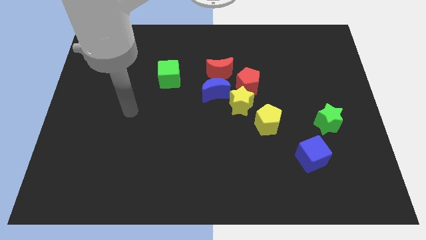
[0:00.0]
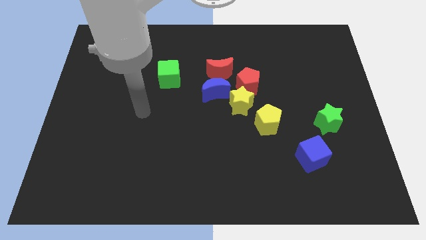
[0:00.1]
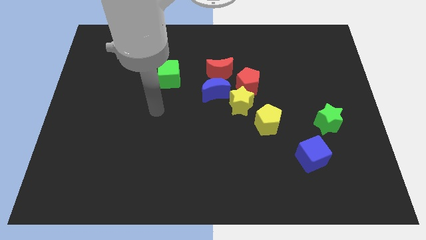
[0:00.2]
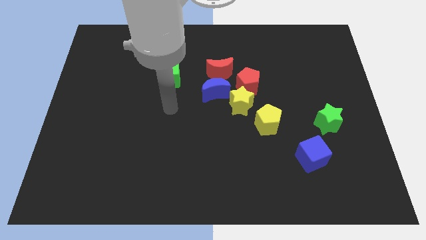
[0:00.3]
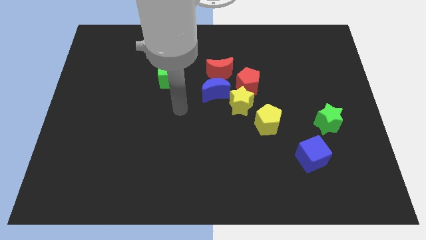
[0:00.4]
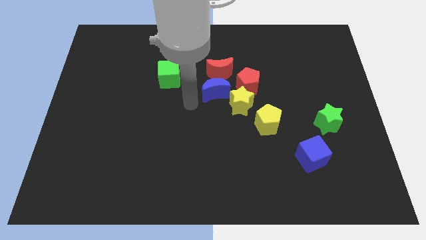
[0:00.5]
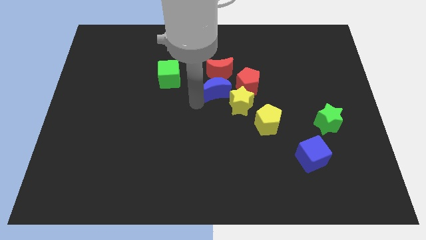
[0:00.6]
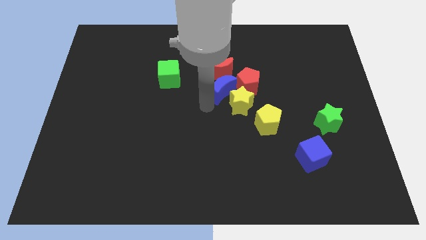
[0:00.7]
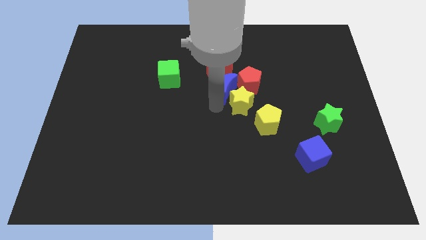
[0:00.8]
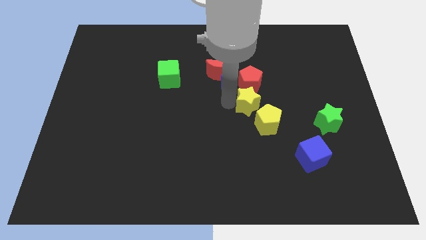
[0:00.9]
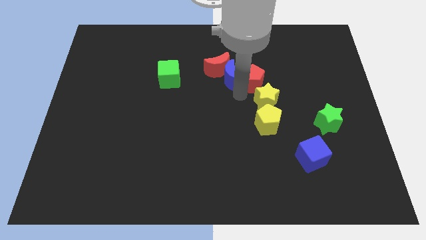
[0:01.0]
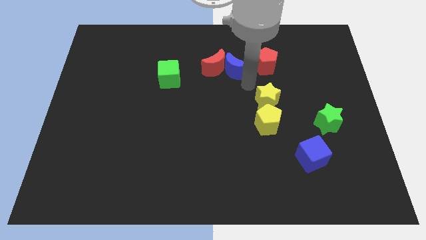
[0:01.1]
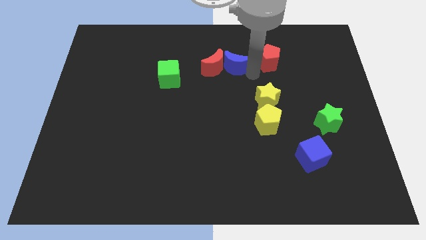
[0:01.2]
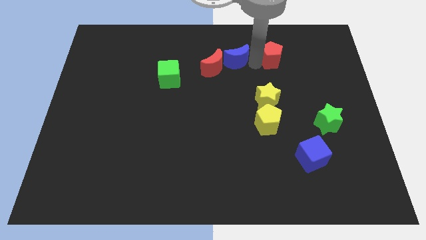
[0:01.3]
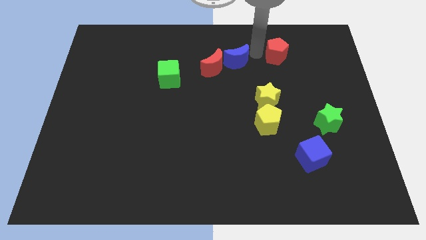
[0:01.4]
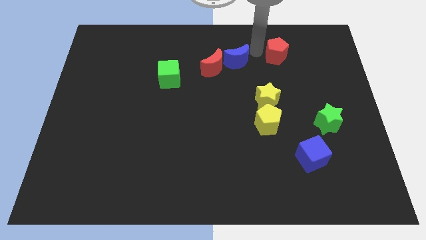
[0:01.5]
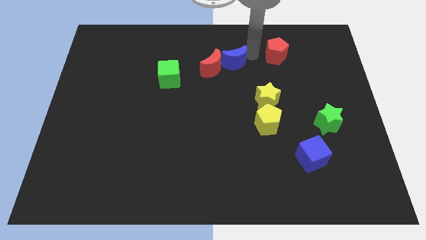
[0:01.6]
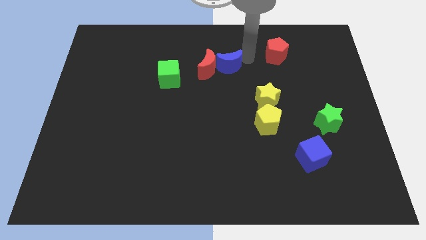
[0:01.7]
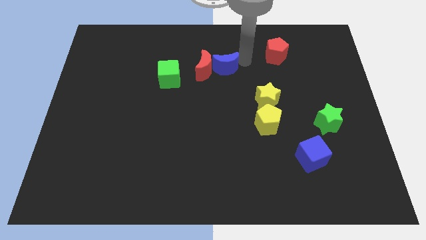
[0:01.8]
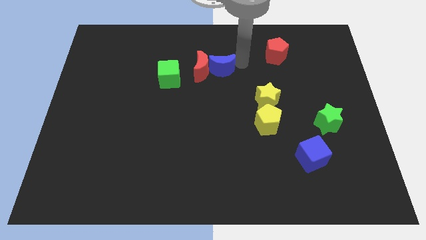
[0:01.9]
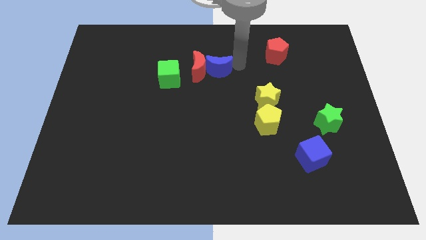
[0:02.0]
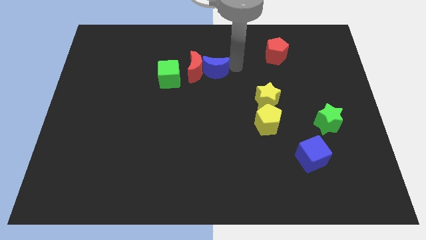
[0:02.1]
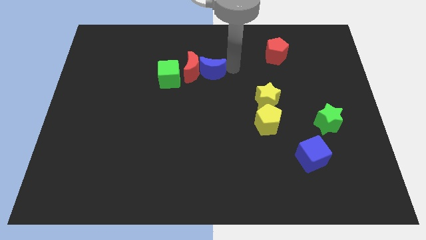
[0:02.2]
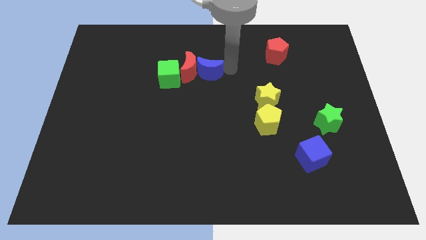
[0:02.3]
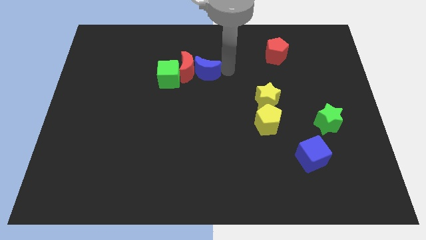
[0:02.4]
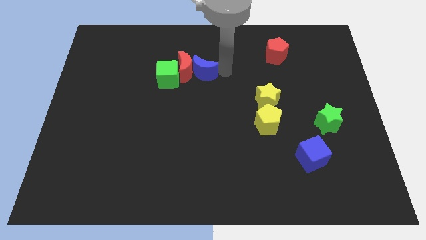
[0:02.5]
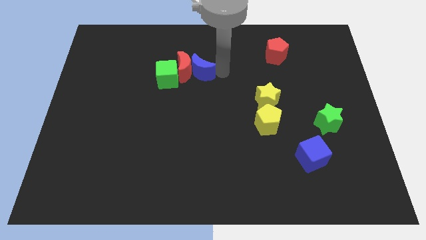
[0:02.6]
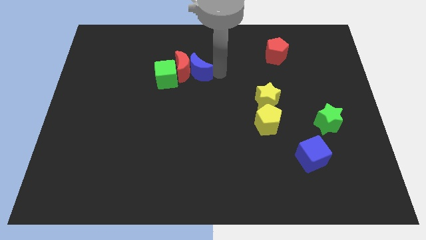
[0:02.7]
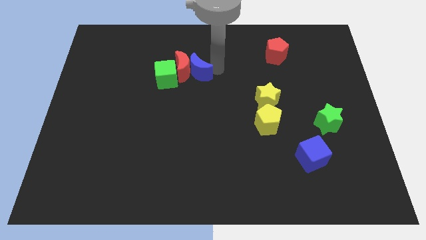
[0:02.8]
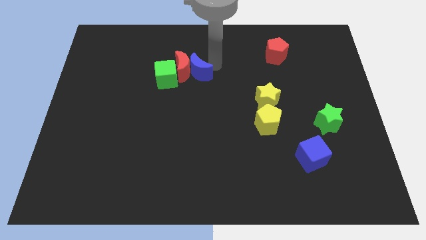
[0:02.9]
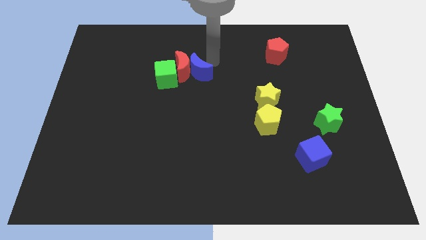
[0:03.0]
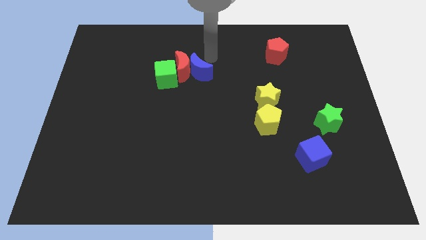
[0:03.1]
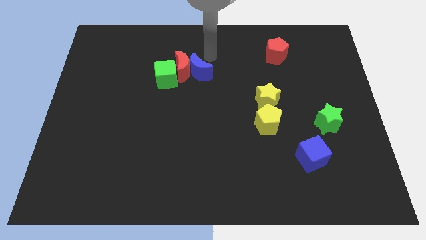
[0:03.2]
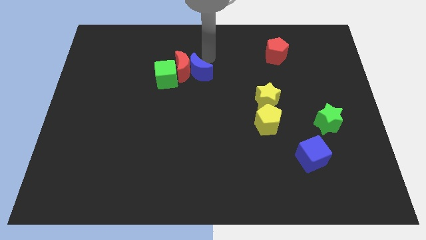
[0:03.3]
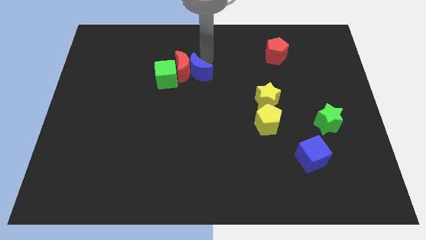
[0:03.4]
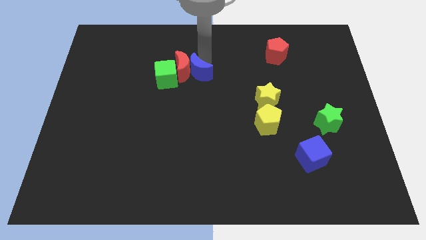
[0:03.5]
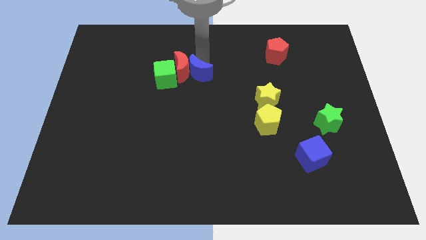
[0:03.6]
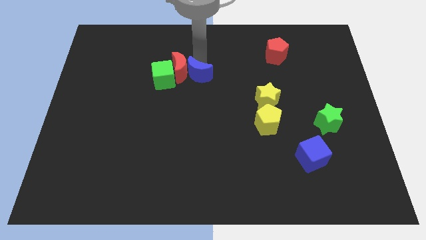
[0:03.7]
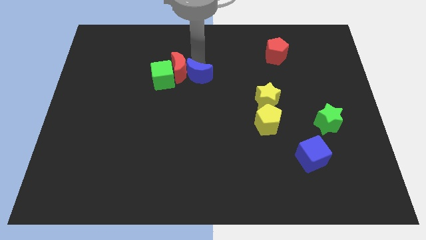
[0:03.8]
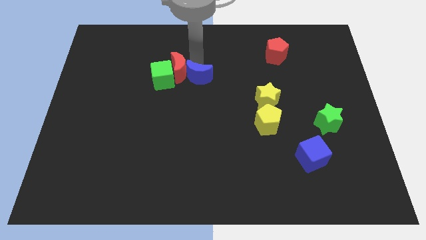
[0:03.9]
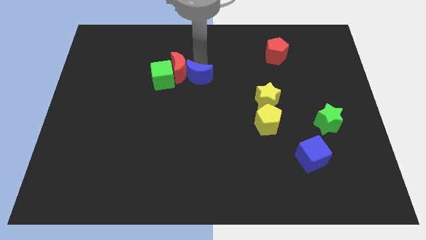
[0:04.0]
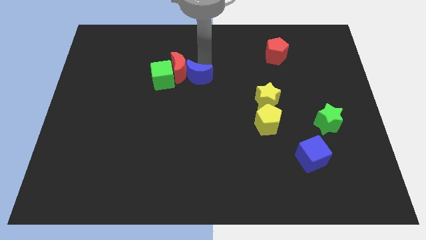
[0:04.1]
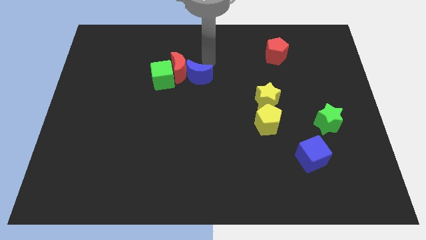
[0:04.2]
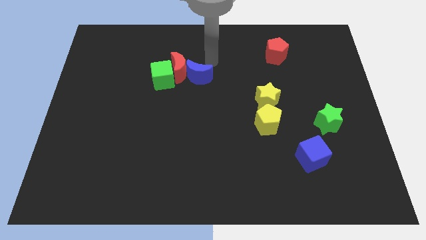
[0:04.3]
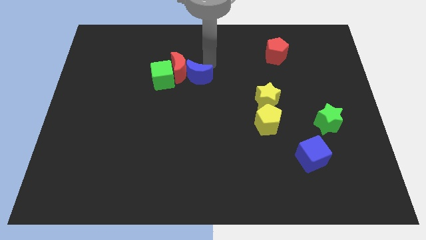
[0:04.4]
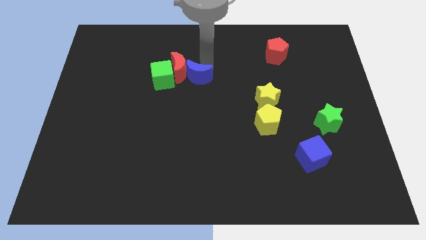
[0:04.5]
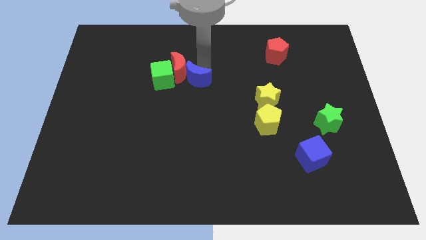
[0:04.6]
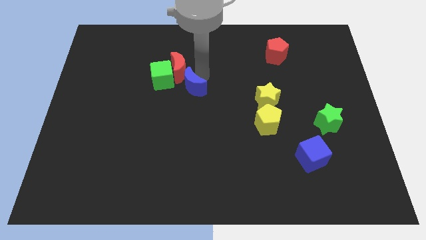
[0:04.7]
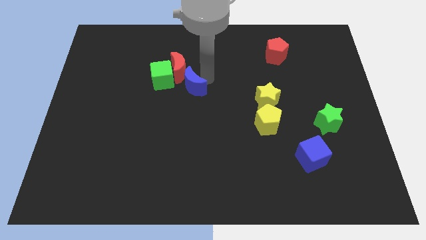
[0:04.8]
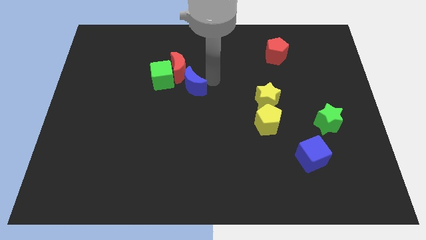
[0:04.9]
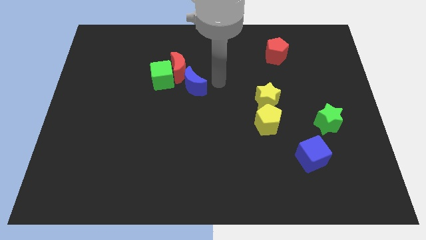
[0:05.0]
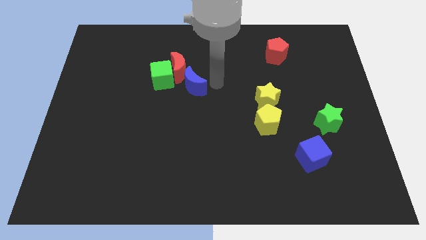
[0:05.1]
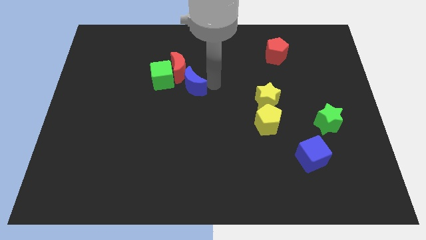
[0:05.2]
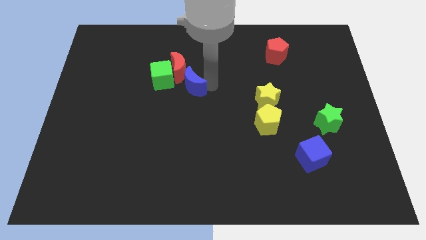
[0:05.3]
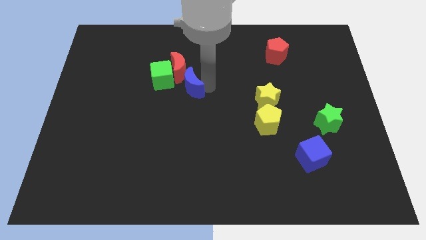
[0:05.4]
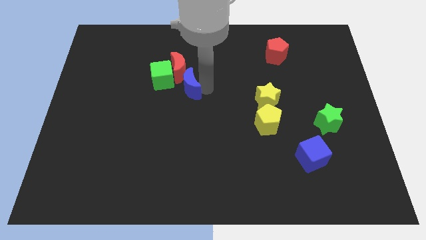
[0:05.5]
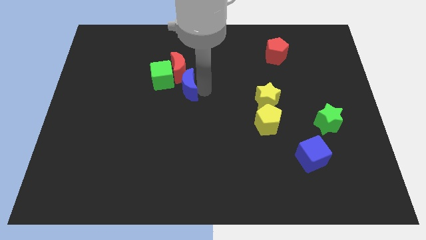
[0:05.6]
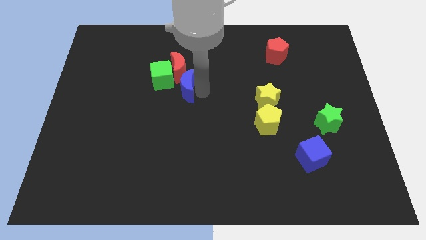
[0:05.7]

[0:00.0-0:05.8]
slide the blue moon to the left a little

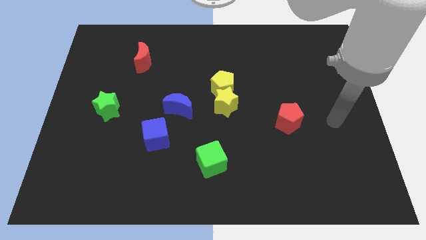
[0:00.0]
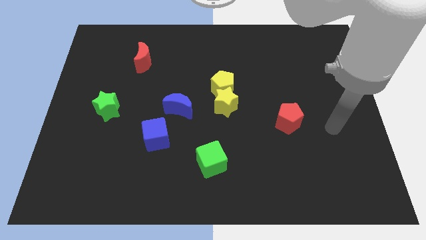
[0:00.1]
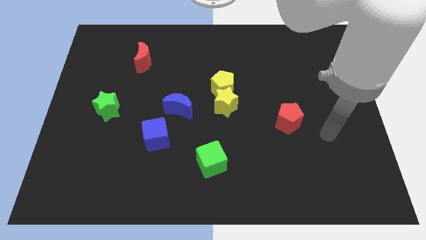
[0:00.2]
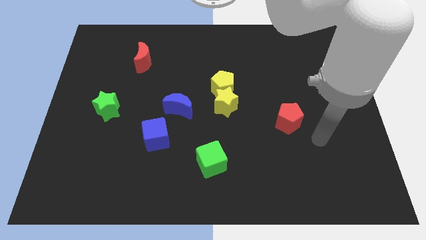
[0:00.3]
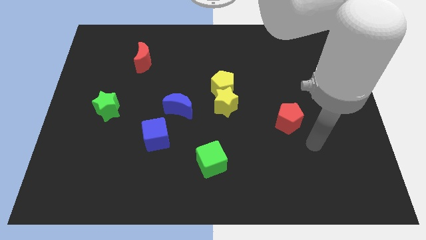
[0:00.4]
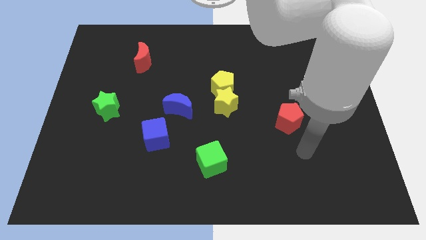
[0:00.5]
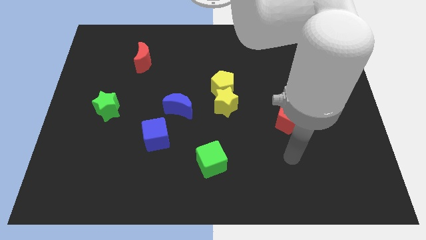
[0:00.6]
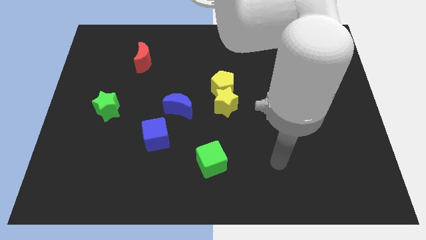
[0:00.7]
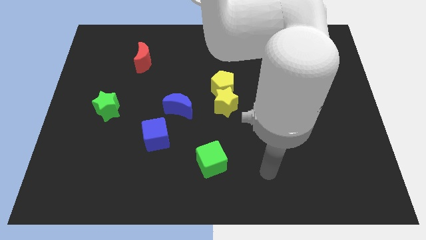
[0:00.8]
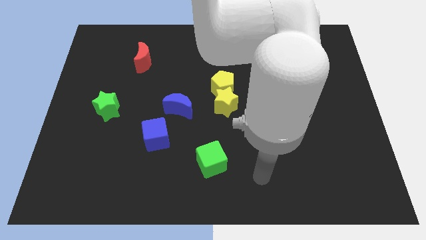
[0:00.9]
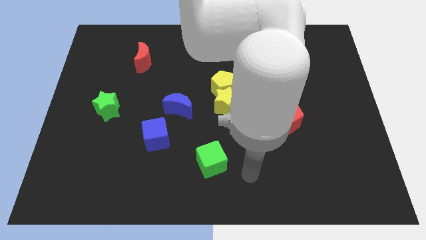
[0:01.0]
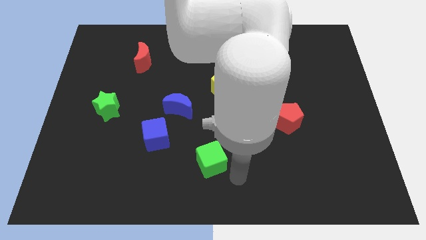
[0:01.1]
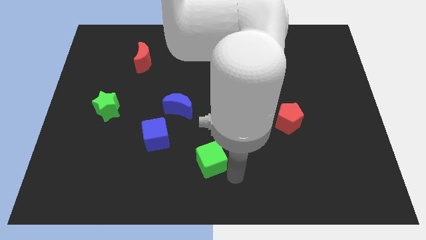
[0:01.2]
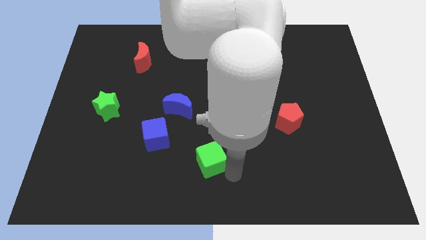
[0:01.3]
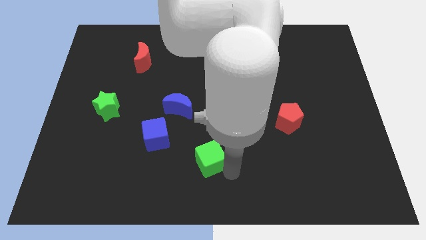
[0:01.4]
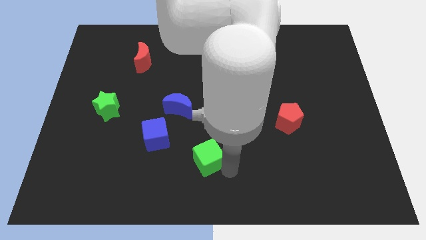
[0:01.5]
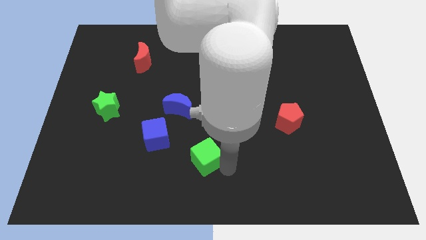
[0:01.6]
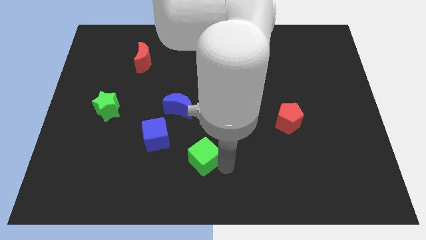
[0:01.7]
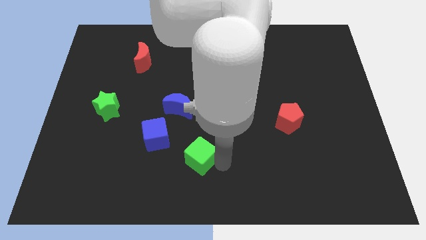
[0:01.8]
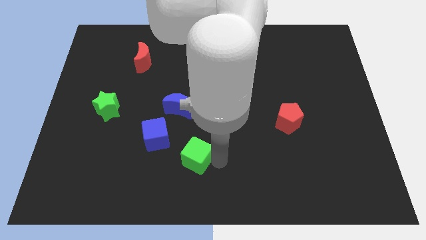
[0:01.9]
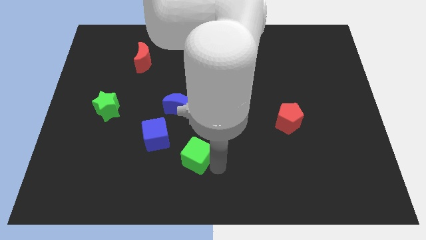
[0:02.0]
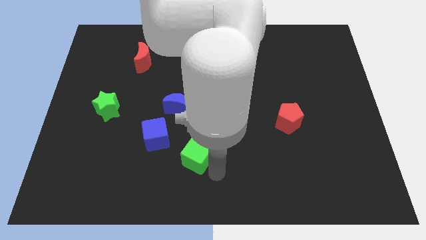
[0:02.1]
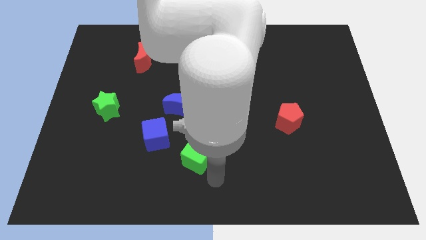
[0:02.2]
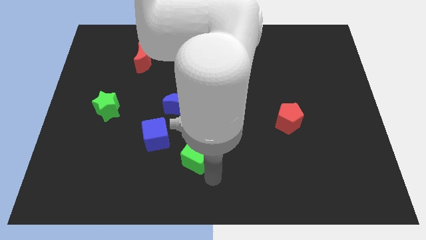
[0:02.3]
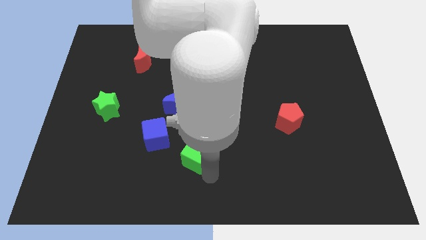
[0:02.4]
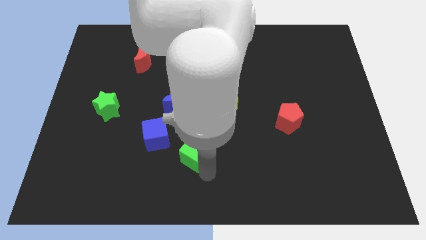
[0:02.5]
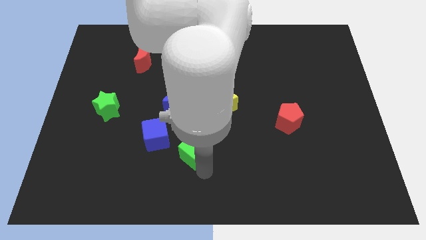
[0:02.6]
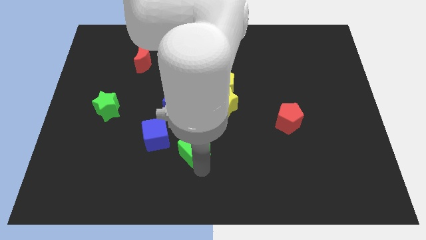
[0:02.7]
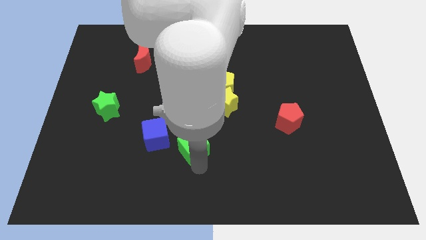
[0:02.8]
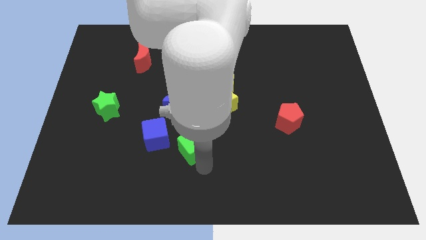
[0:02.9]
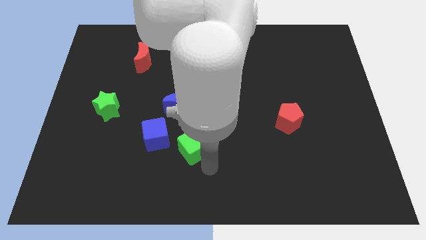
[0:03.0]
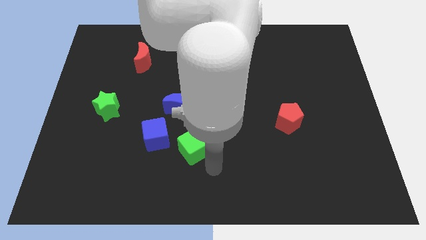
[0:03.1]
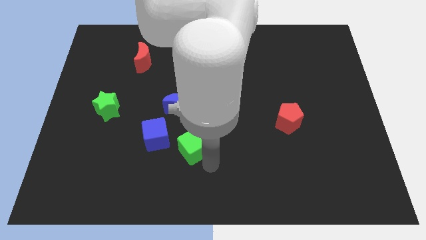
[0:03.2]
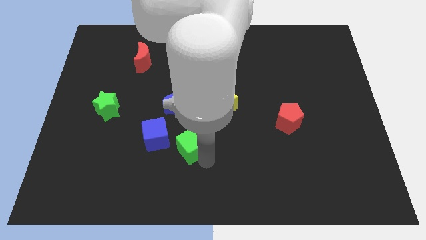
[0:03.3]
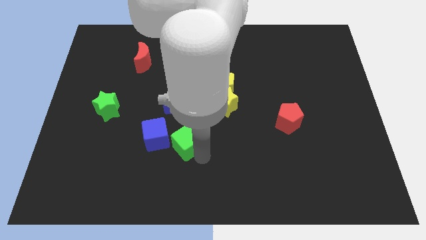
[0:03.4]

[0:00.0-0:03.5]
slide the green cube diagonally up and to the left a little bit
